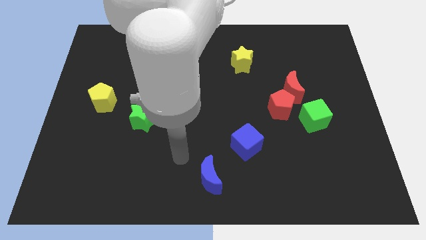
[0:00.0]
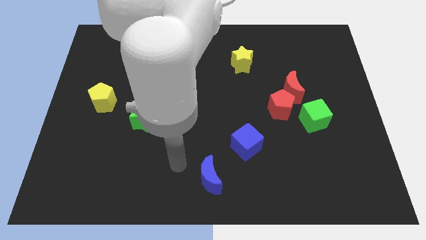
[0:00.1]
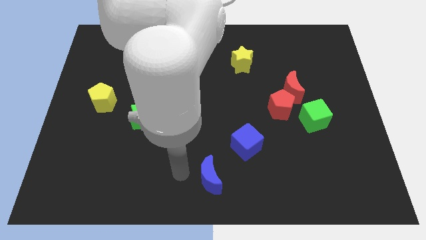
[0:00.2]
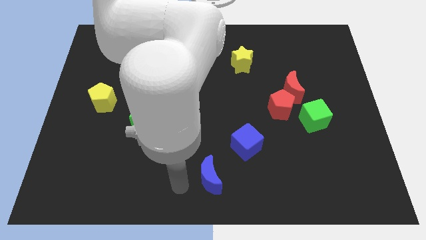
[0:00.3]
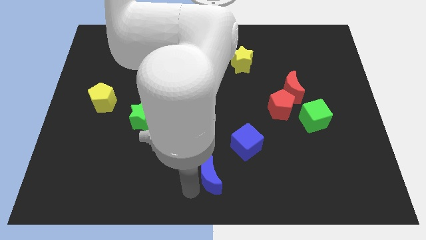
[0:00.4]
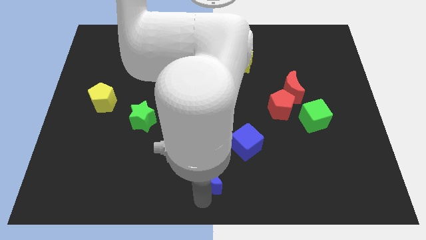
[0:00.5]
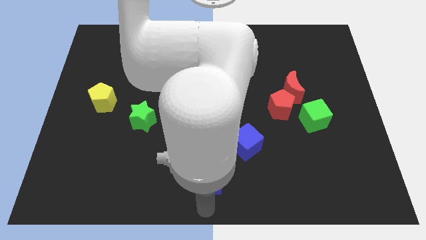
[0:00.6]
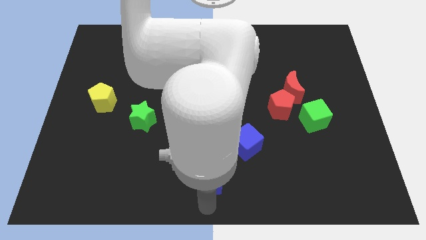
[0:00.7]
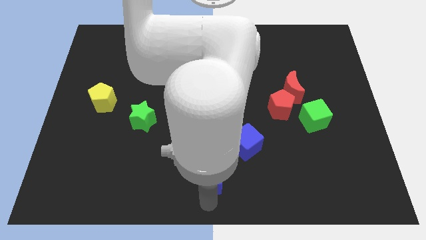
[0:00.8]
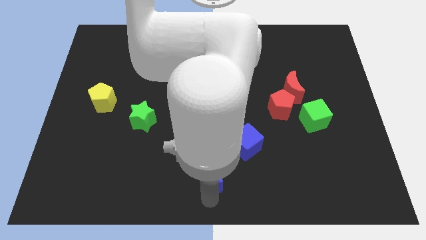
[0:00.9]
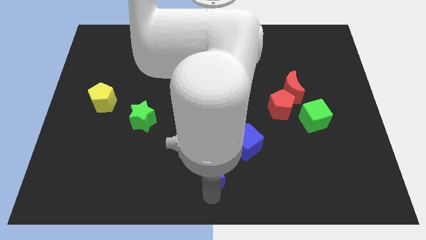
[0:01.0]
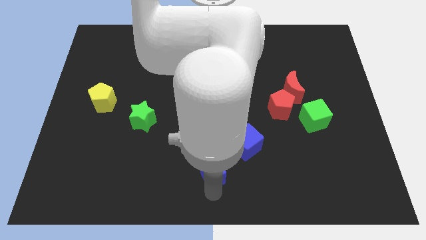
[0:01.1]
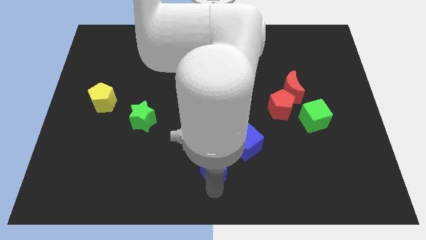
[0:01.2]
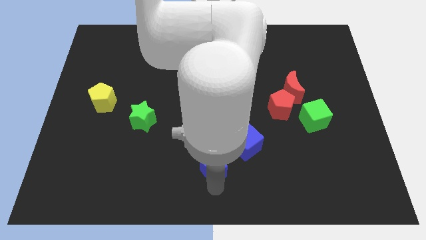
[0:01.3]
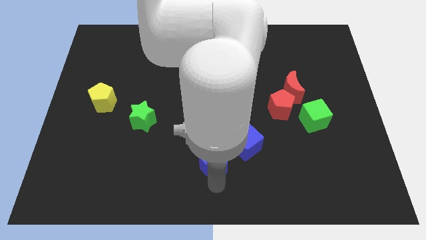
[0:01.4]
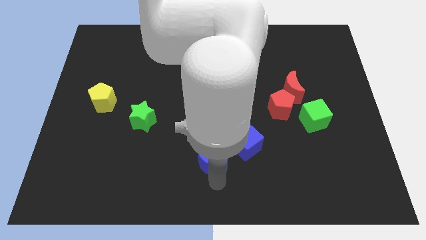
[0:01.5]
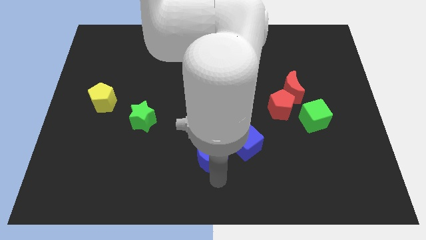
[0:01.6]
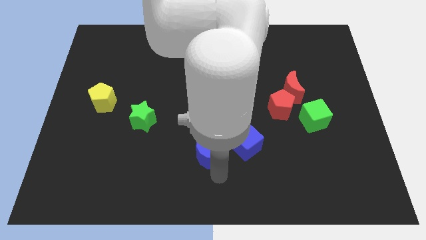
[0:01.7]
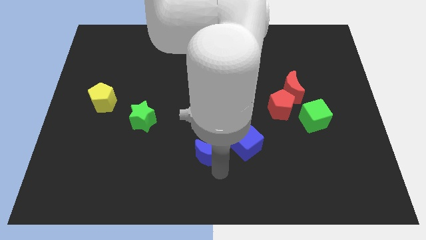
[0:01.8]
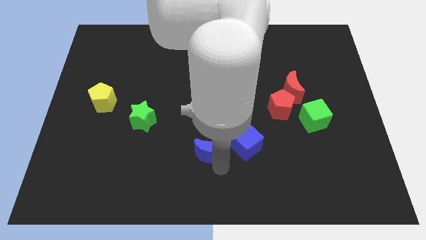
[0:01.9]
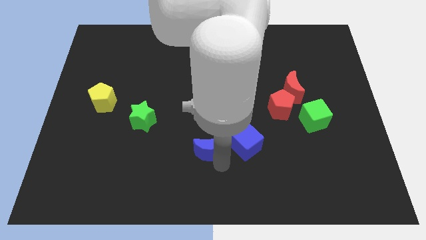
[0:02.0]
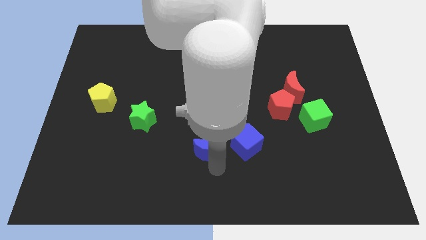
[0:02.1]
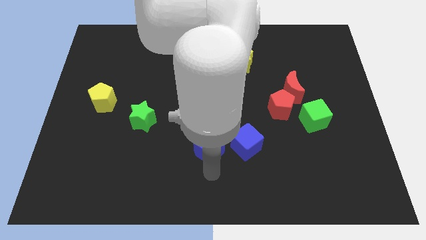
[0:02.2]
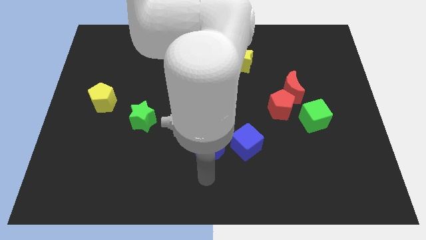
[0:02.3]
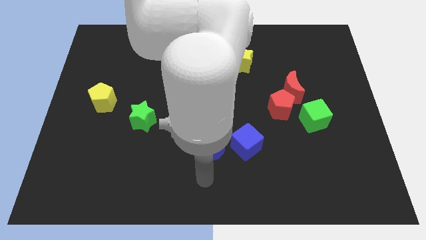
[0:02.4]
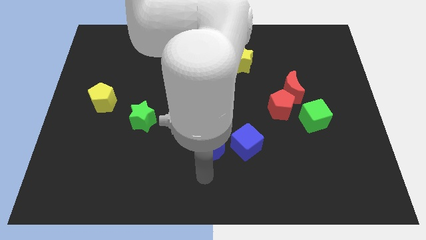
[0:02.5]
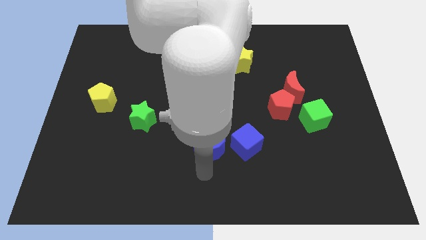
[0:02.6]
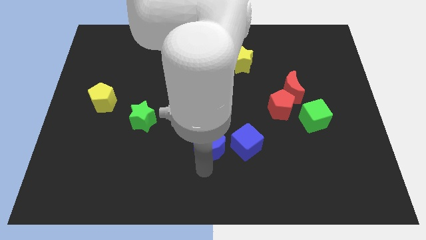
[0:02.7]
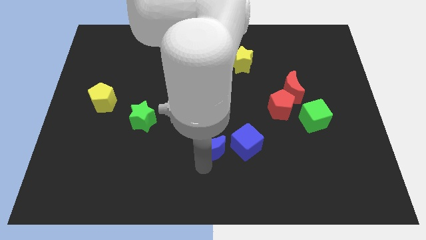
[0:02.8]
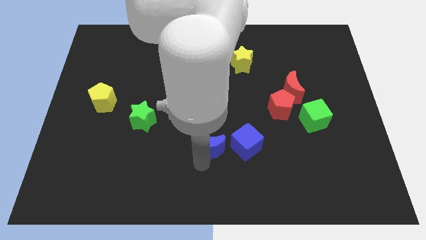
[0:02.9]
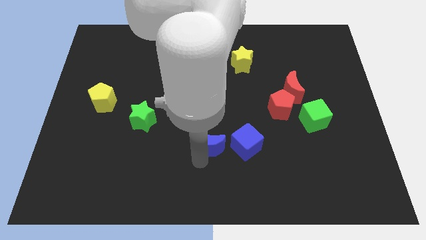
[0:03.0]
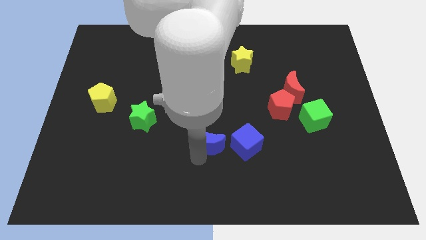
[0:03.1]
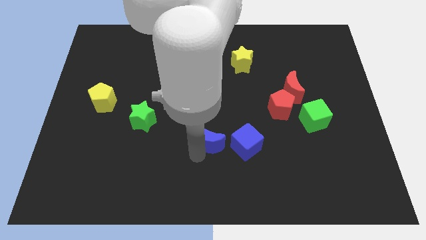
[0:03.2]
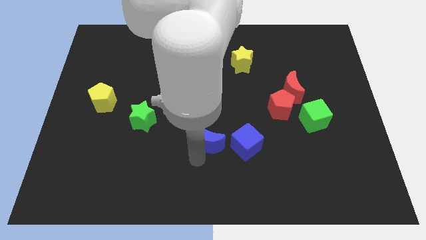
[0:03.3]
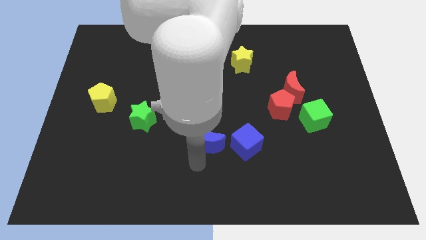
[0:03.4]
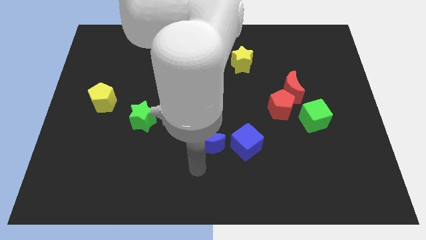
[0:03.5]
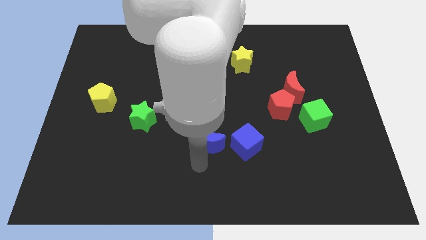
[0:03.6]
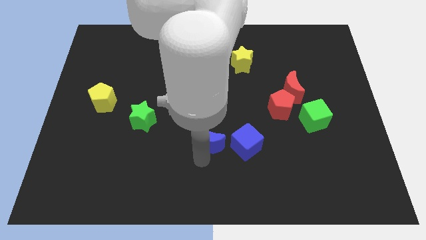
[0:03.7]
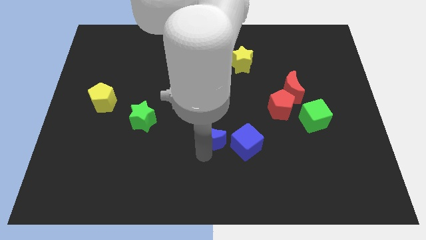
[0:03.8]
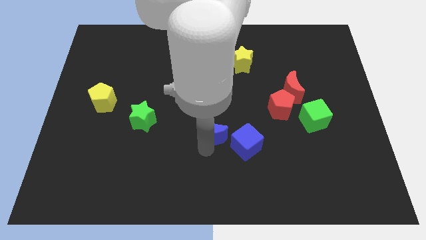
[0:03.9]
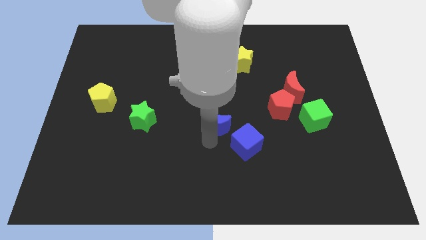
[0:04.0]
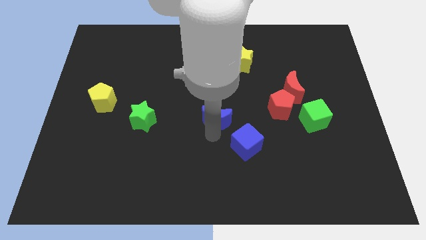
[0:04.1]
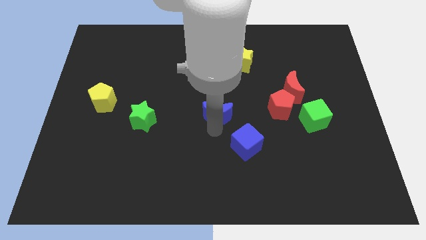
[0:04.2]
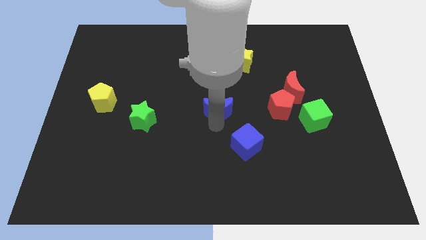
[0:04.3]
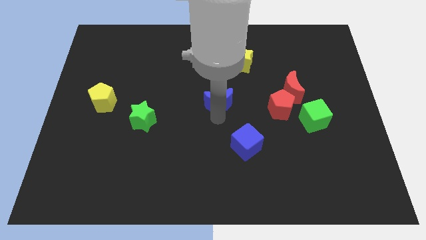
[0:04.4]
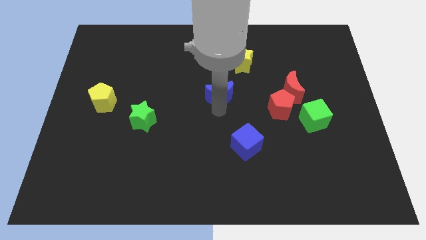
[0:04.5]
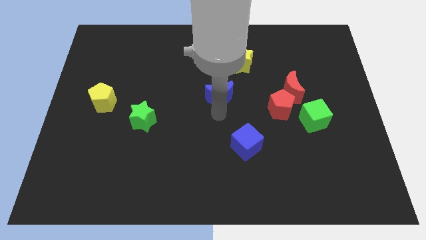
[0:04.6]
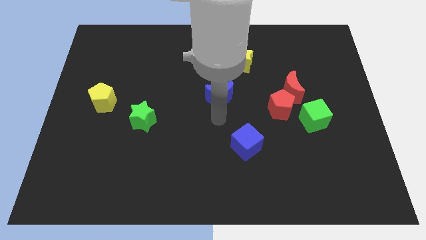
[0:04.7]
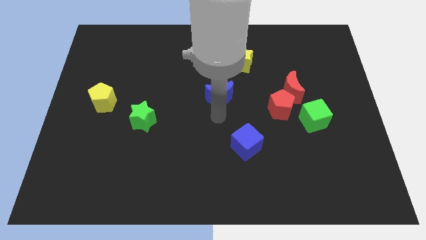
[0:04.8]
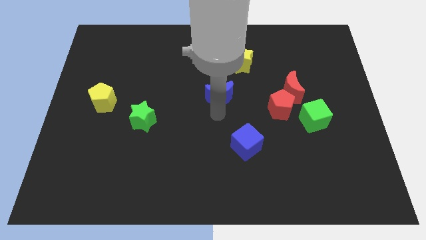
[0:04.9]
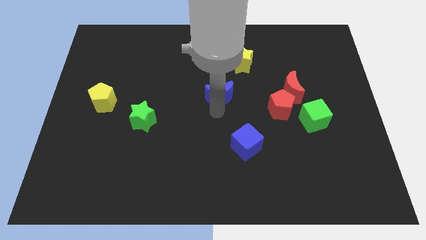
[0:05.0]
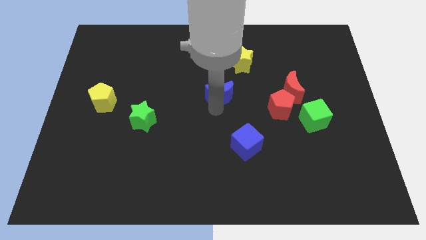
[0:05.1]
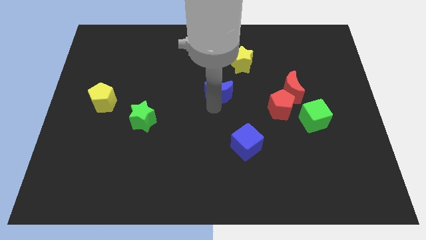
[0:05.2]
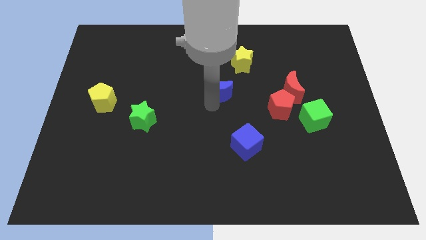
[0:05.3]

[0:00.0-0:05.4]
push the blue moon to the bottom left of the yellow star

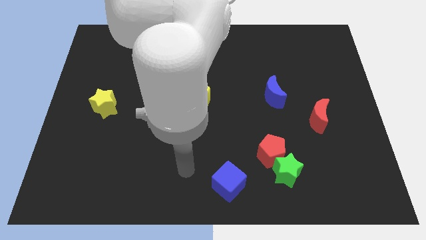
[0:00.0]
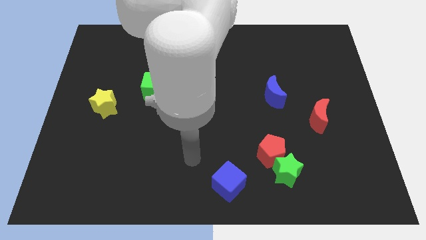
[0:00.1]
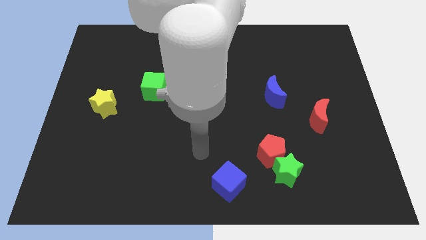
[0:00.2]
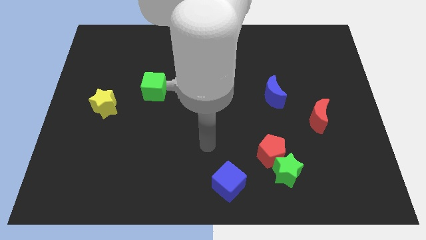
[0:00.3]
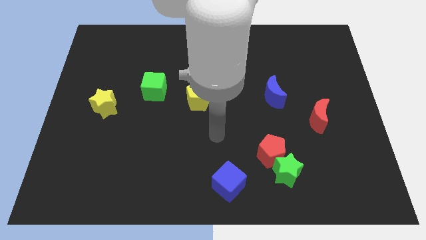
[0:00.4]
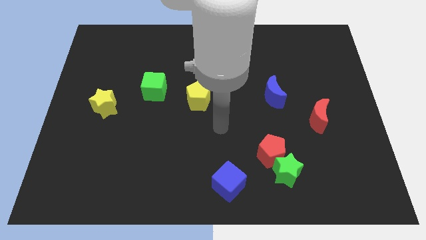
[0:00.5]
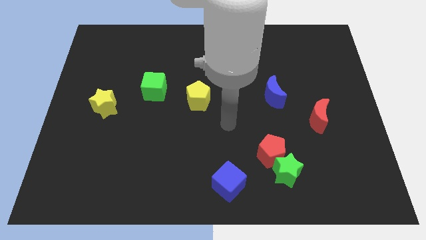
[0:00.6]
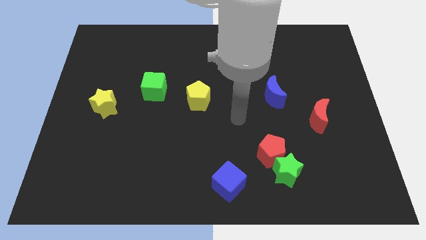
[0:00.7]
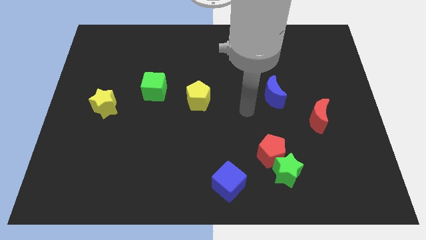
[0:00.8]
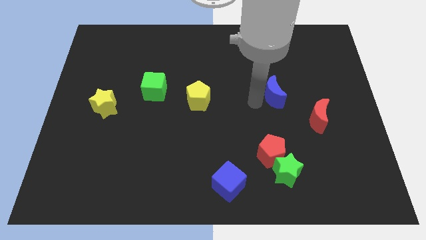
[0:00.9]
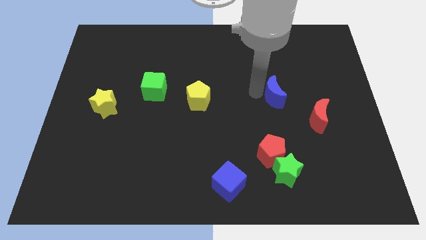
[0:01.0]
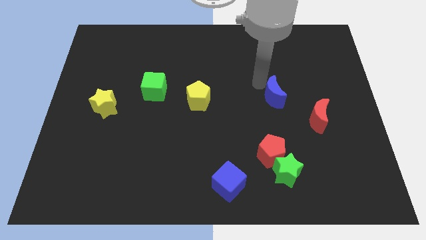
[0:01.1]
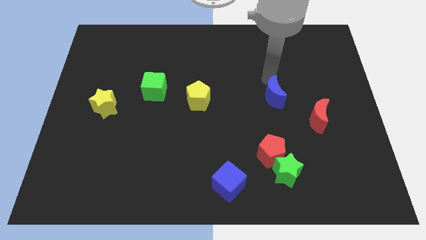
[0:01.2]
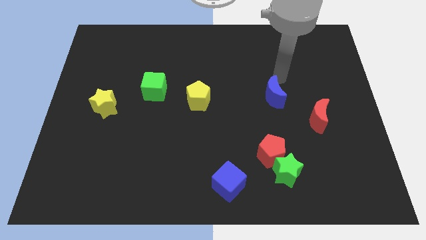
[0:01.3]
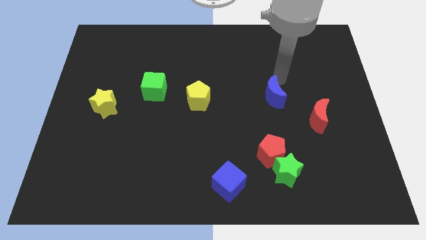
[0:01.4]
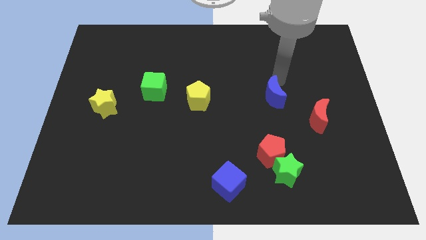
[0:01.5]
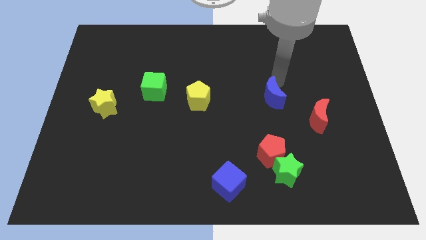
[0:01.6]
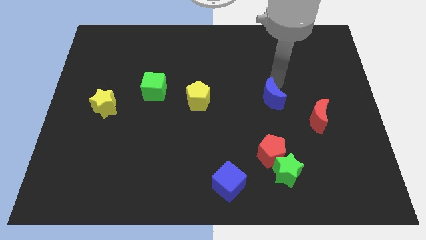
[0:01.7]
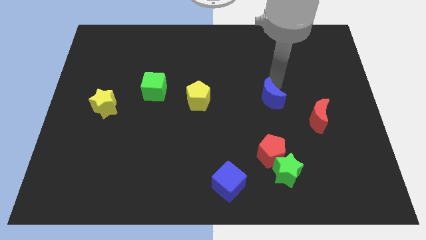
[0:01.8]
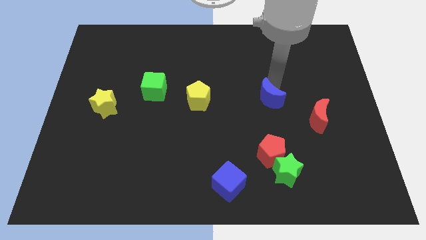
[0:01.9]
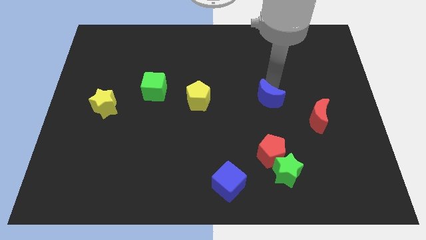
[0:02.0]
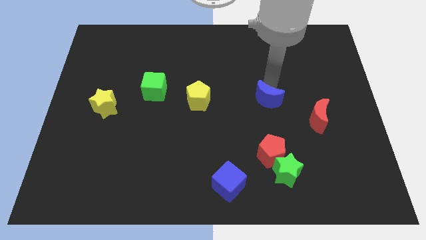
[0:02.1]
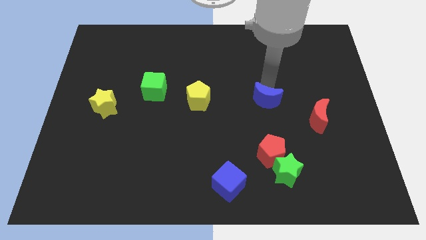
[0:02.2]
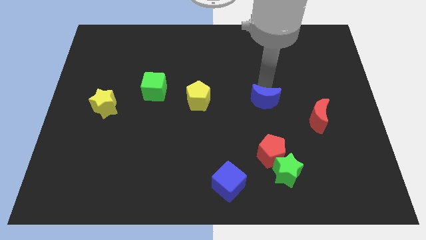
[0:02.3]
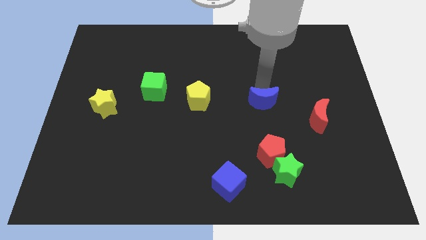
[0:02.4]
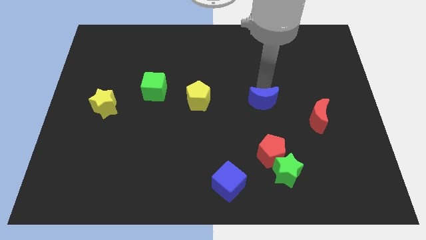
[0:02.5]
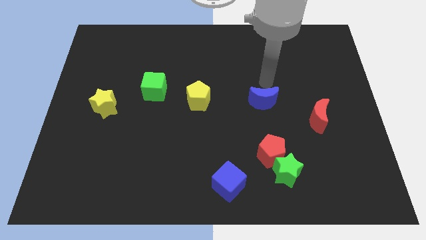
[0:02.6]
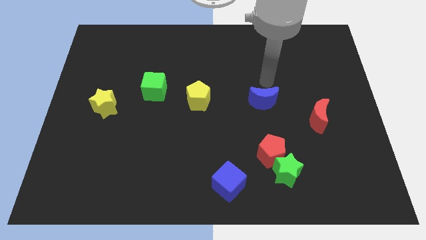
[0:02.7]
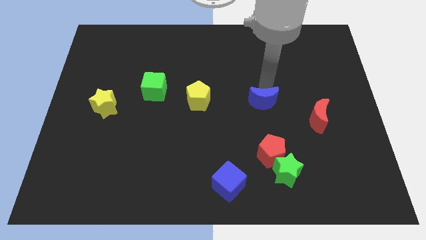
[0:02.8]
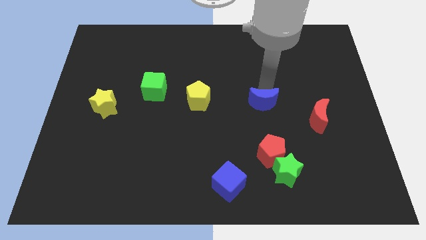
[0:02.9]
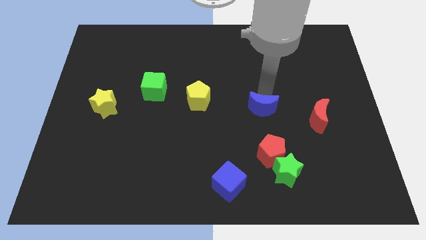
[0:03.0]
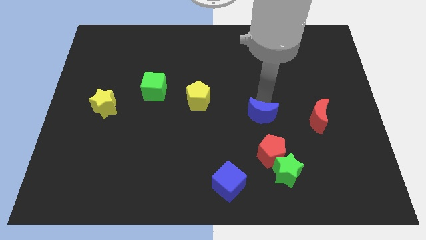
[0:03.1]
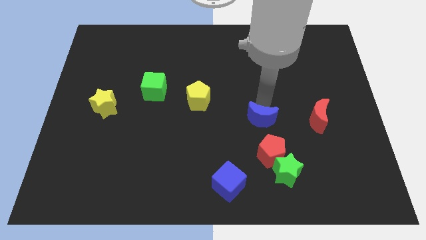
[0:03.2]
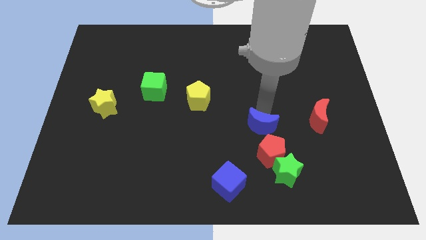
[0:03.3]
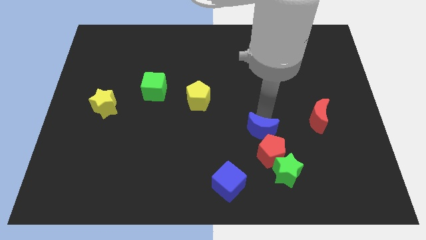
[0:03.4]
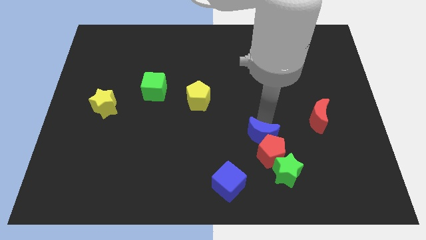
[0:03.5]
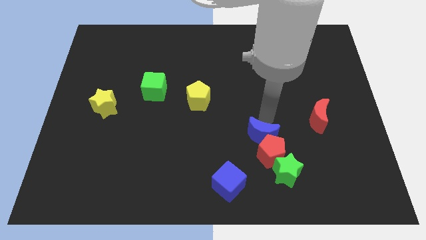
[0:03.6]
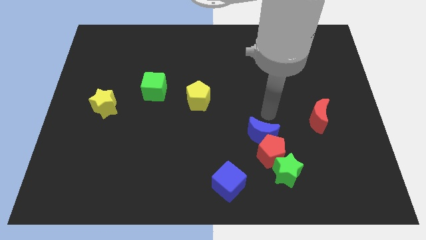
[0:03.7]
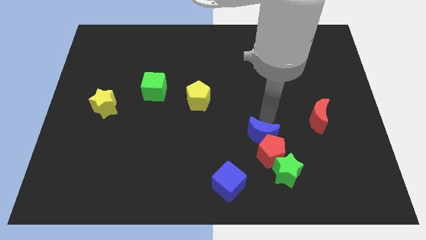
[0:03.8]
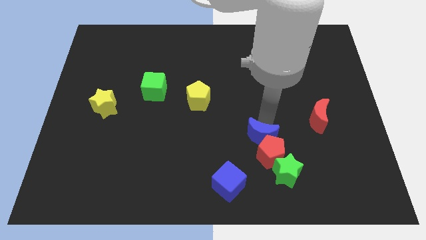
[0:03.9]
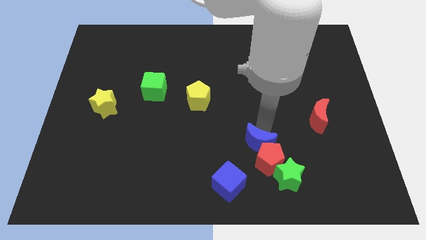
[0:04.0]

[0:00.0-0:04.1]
push the blue moon diagonally up and to the right of the blue cube
